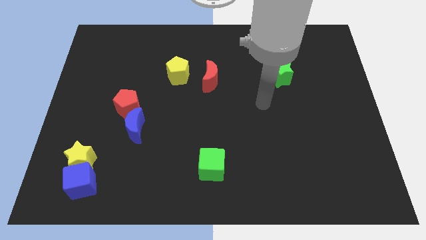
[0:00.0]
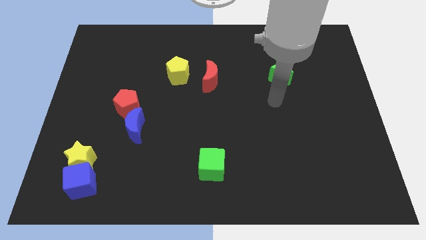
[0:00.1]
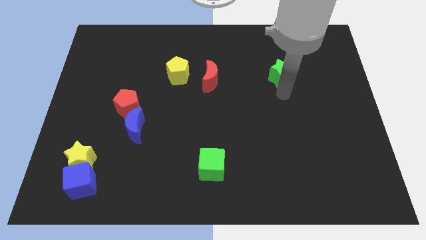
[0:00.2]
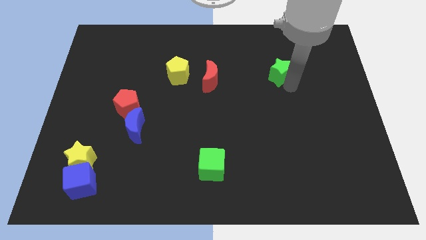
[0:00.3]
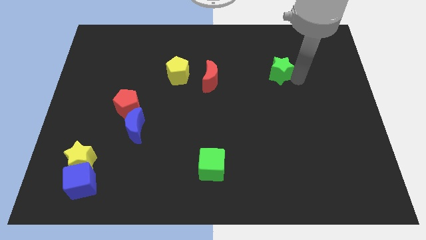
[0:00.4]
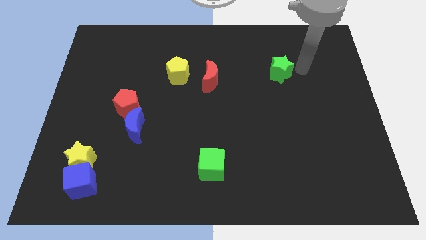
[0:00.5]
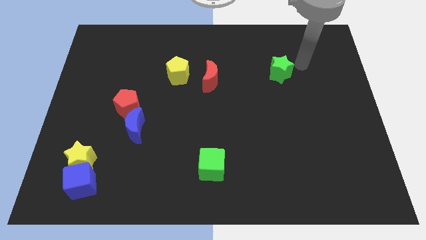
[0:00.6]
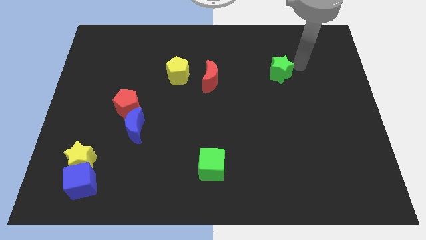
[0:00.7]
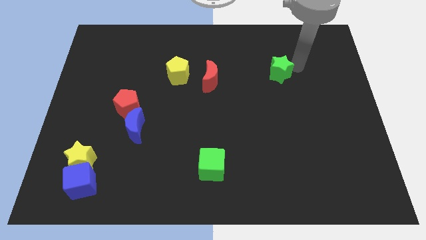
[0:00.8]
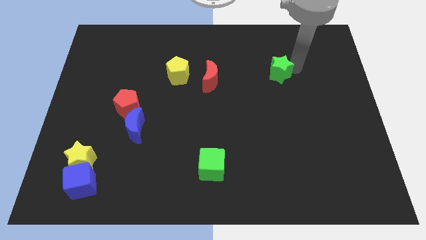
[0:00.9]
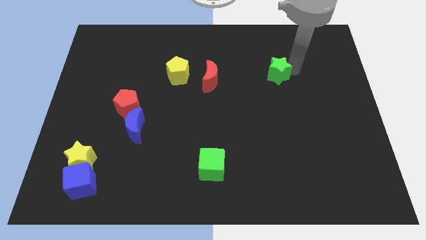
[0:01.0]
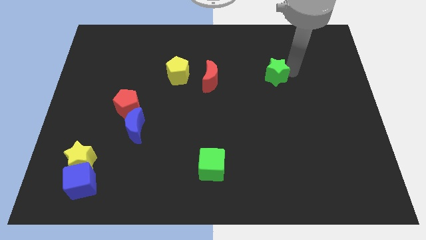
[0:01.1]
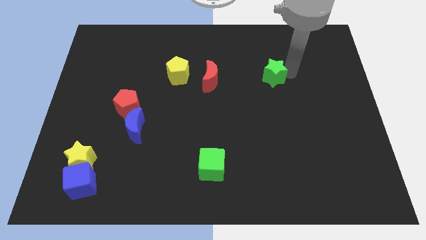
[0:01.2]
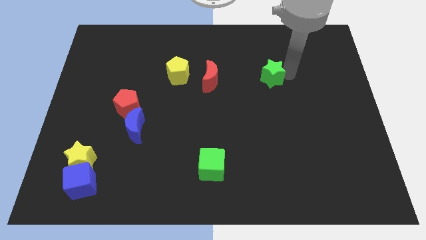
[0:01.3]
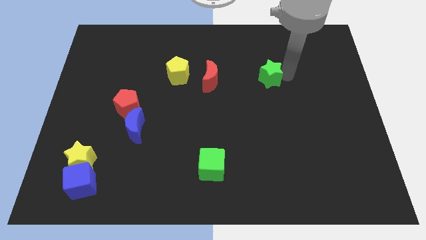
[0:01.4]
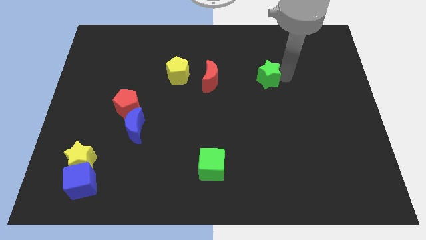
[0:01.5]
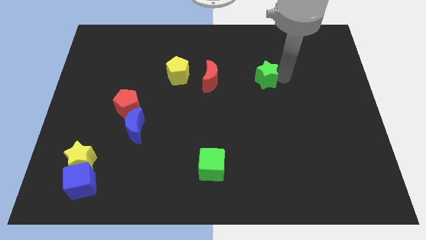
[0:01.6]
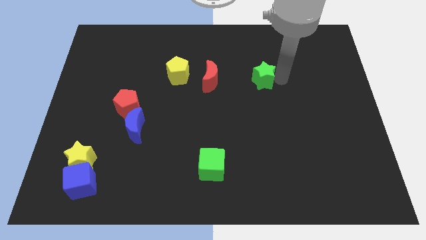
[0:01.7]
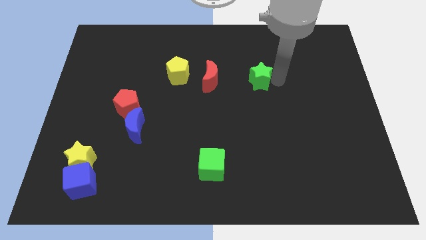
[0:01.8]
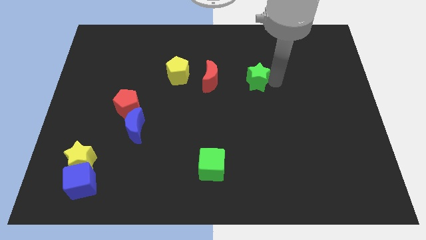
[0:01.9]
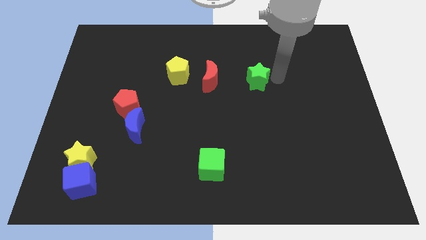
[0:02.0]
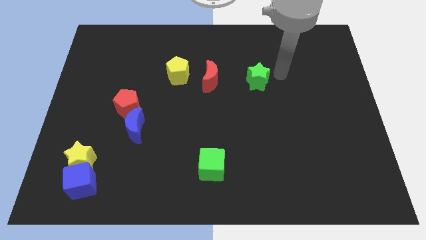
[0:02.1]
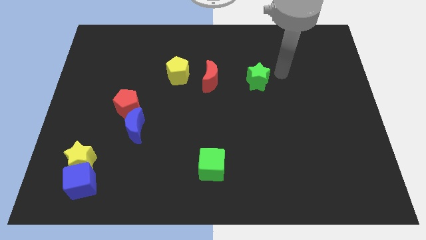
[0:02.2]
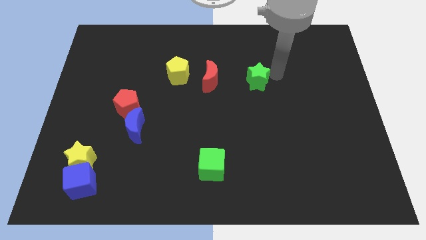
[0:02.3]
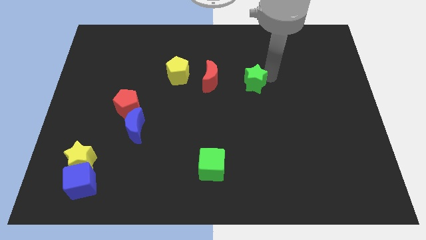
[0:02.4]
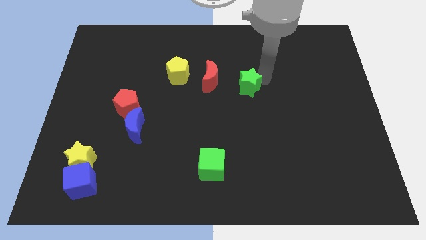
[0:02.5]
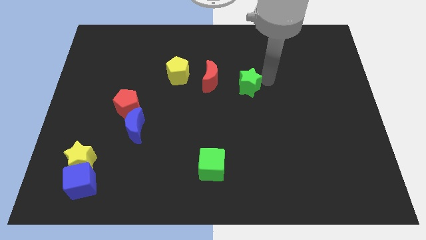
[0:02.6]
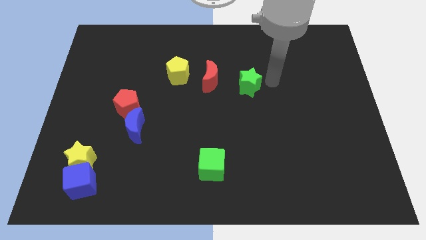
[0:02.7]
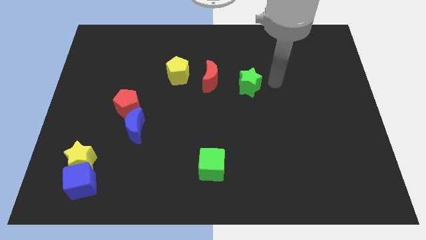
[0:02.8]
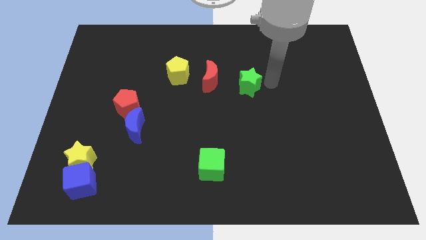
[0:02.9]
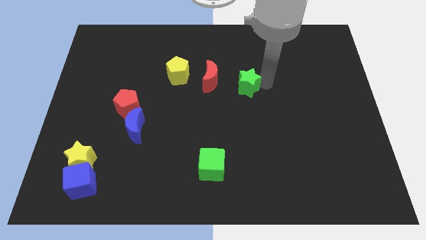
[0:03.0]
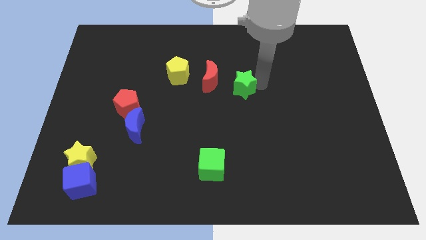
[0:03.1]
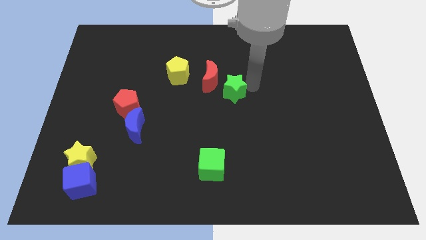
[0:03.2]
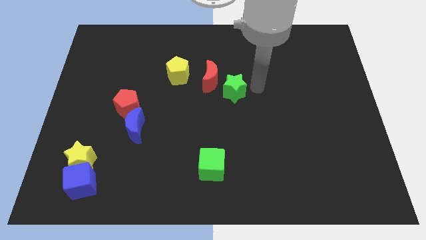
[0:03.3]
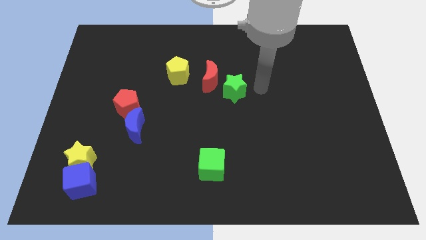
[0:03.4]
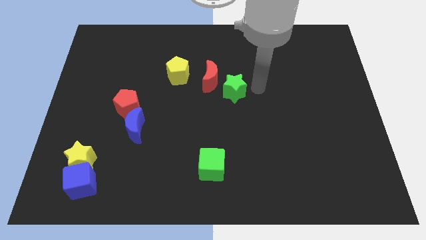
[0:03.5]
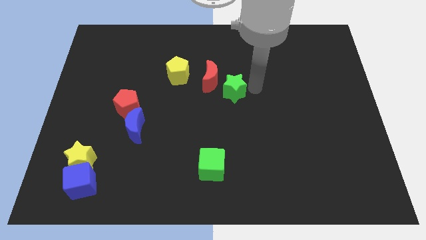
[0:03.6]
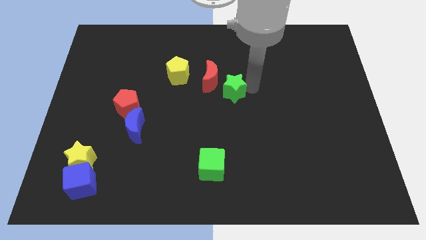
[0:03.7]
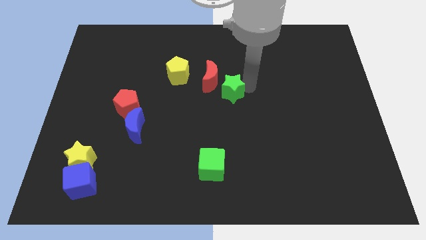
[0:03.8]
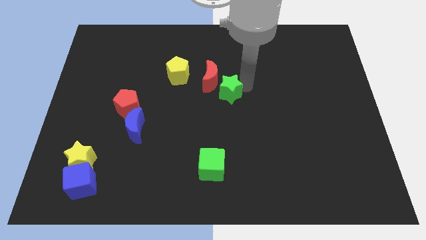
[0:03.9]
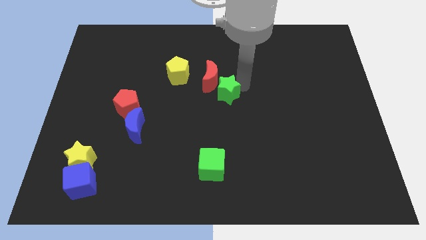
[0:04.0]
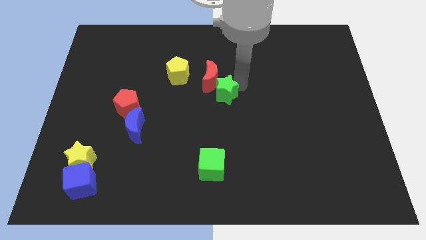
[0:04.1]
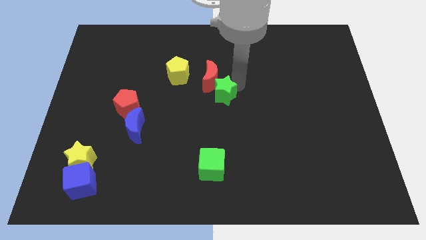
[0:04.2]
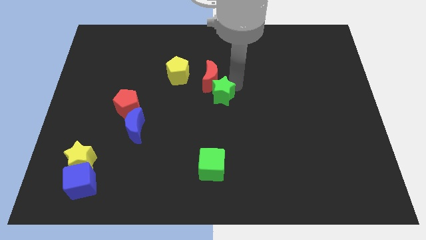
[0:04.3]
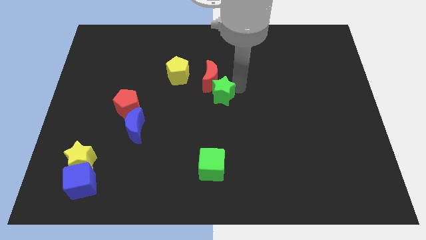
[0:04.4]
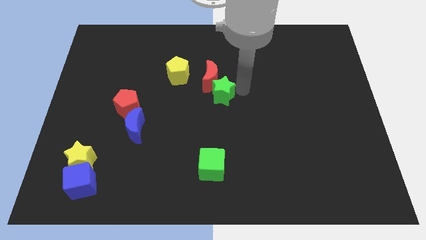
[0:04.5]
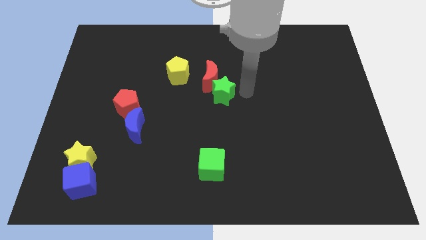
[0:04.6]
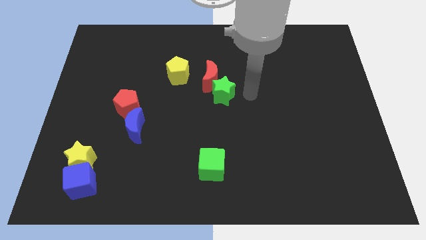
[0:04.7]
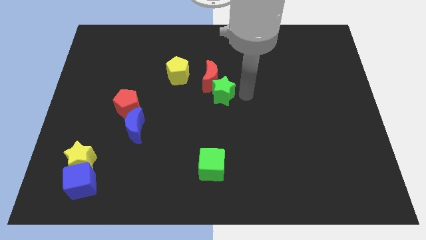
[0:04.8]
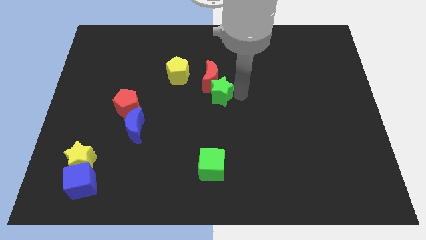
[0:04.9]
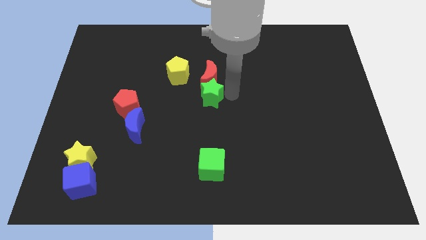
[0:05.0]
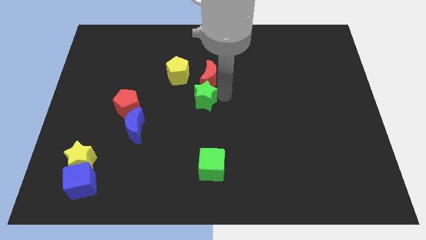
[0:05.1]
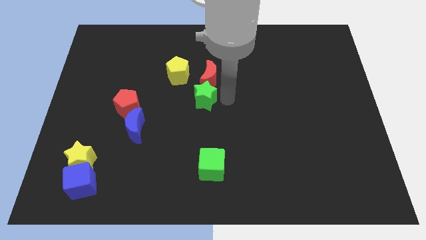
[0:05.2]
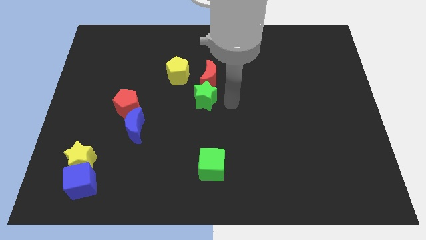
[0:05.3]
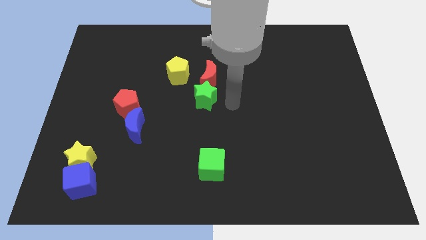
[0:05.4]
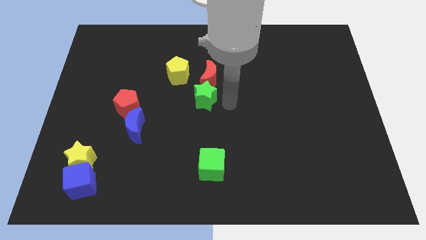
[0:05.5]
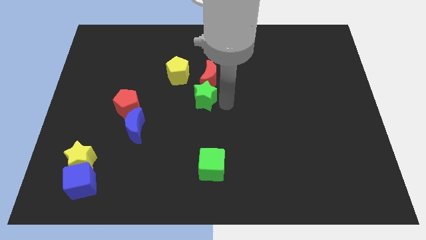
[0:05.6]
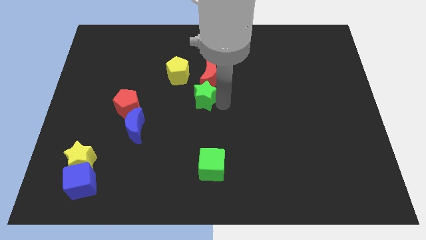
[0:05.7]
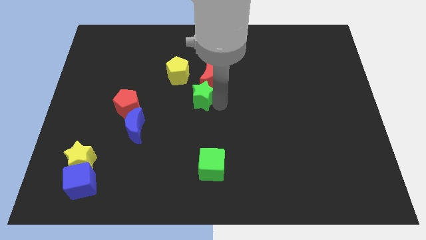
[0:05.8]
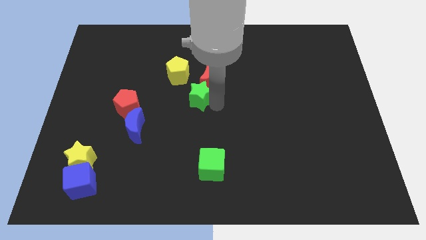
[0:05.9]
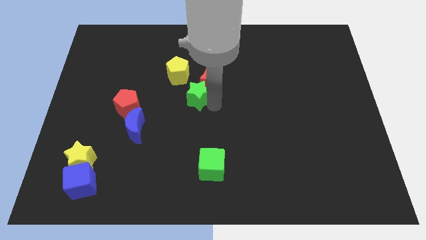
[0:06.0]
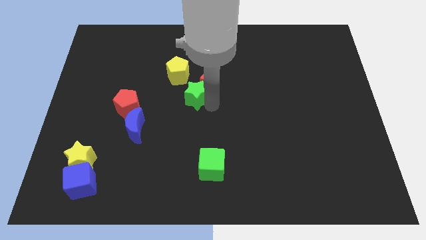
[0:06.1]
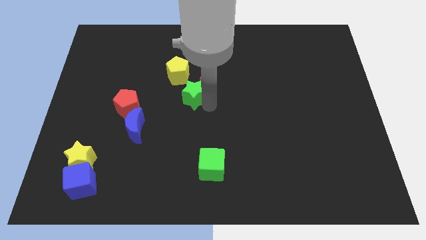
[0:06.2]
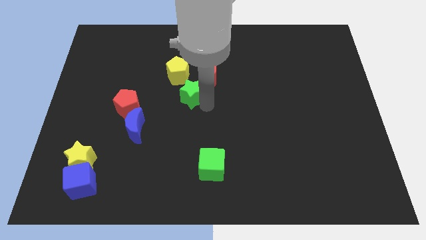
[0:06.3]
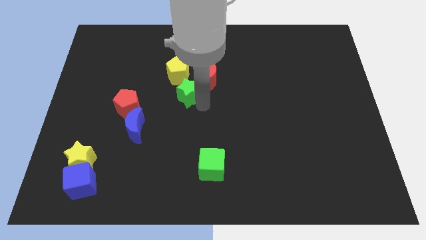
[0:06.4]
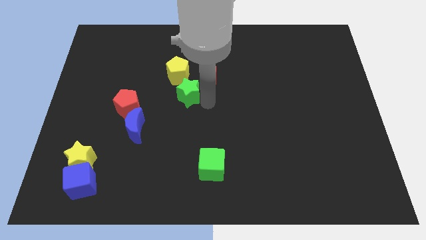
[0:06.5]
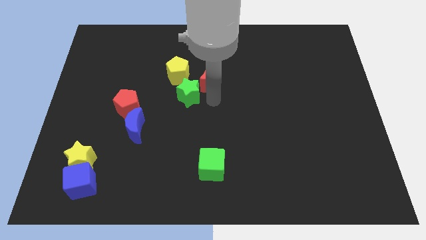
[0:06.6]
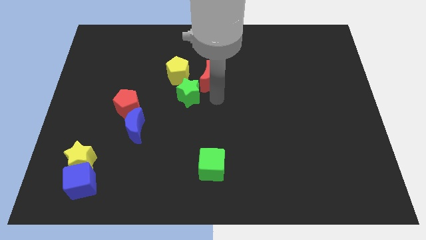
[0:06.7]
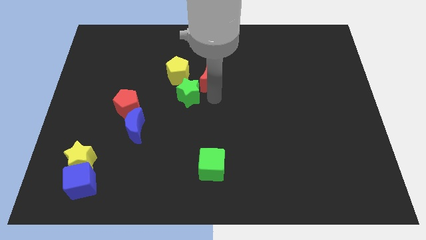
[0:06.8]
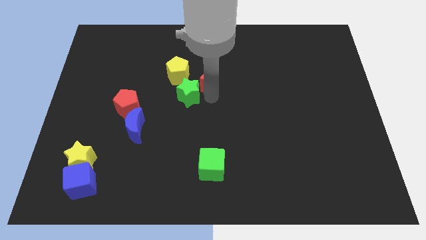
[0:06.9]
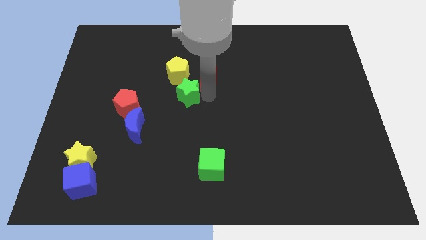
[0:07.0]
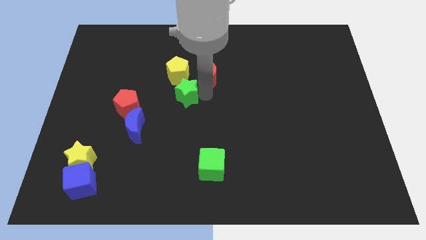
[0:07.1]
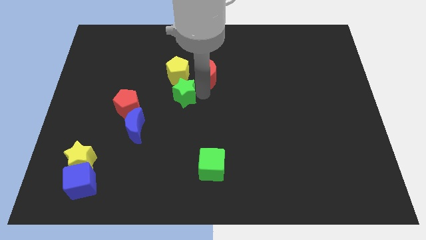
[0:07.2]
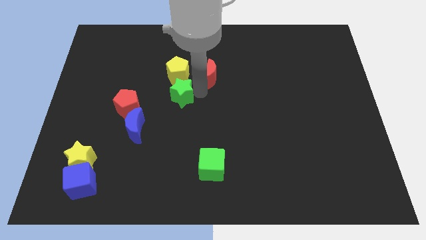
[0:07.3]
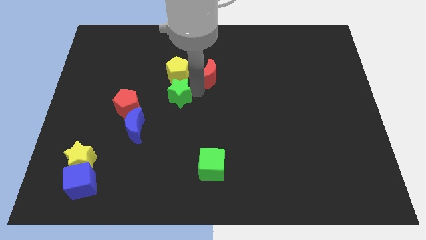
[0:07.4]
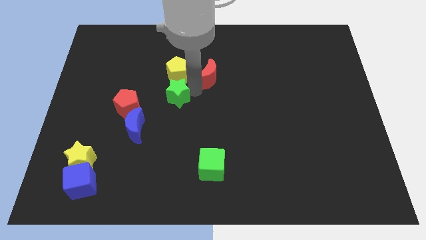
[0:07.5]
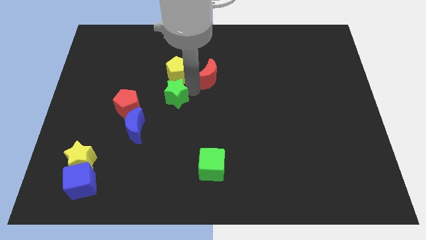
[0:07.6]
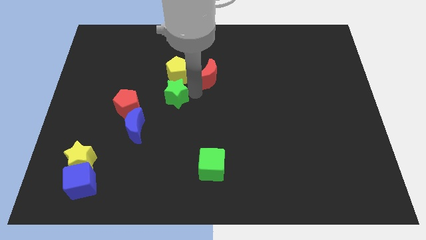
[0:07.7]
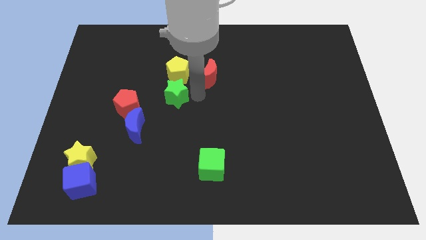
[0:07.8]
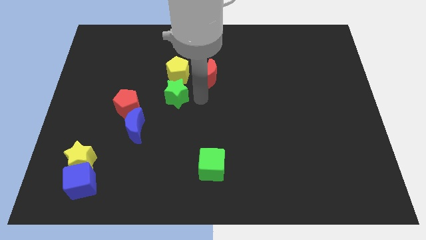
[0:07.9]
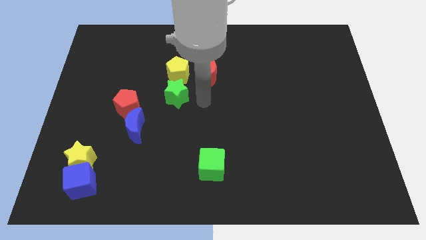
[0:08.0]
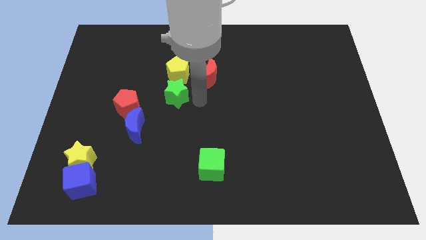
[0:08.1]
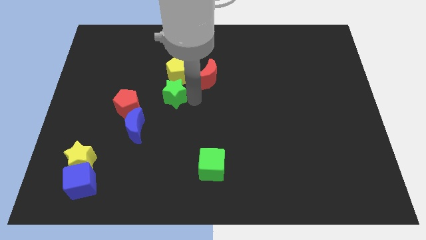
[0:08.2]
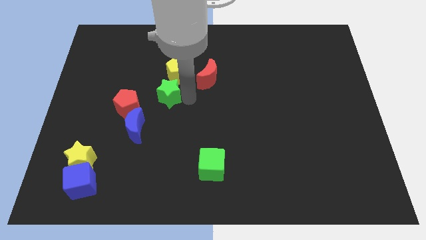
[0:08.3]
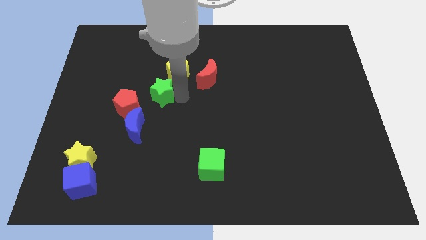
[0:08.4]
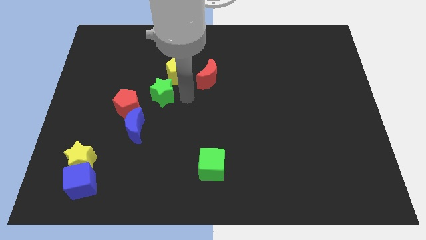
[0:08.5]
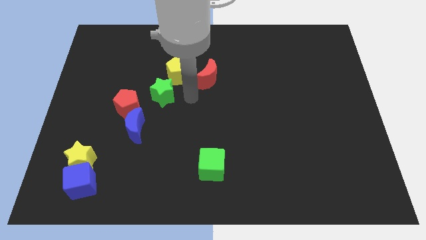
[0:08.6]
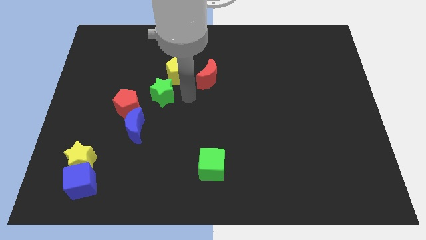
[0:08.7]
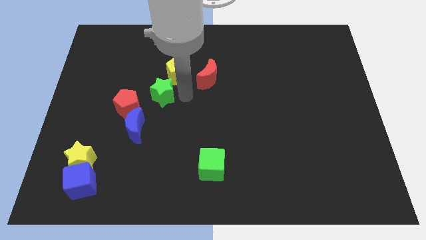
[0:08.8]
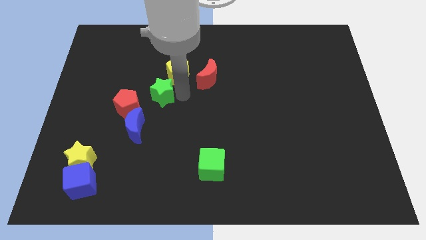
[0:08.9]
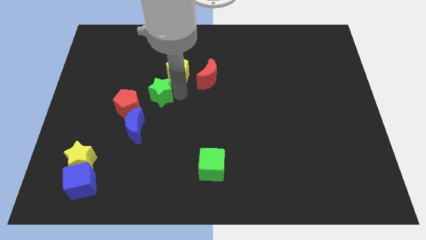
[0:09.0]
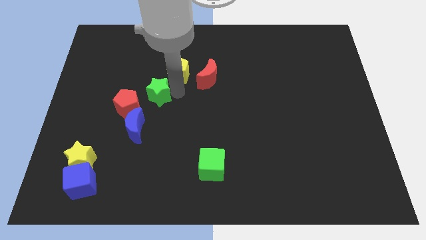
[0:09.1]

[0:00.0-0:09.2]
move the green star to the top of the blue moon
